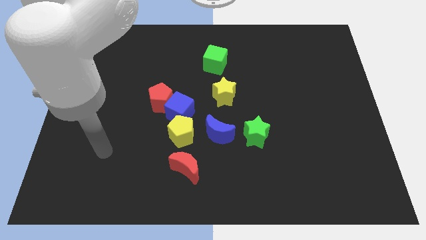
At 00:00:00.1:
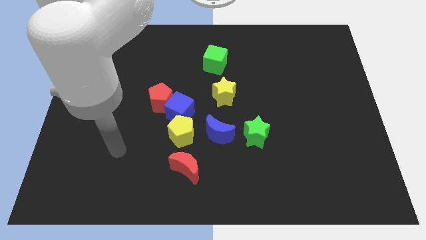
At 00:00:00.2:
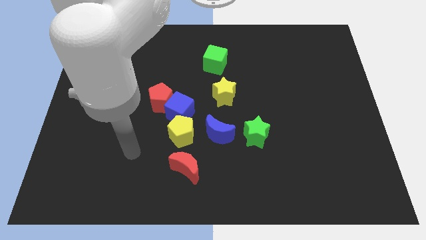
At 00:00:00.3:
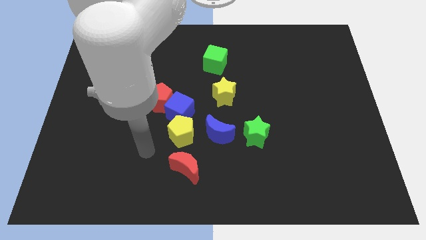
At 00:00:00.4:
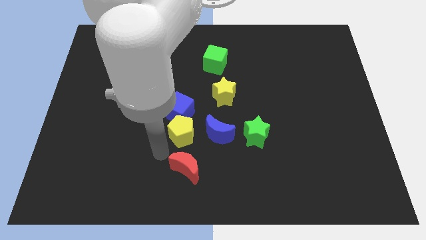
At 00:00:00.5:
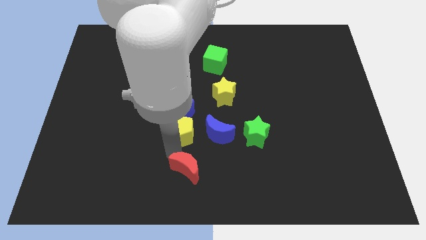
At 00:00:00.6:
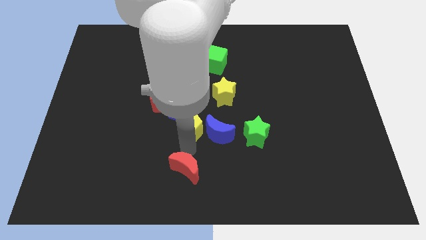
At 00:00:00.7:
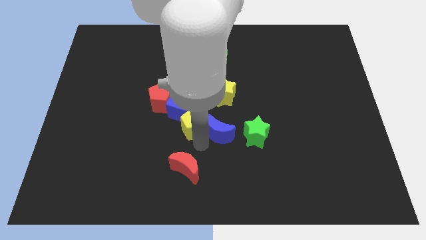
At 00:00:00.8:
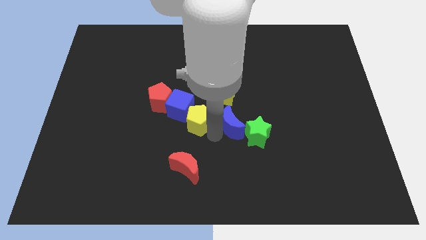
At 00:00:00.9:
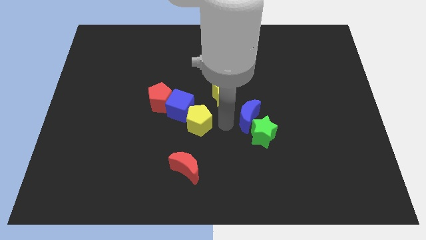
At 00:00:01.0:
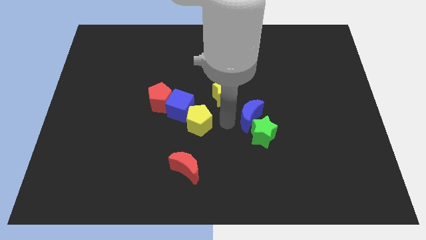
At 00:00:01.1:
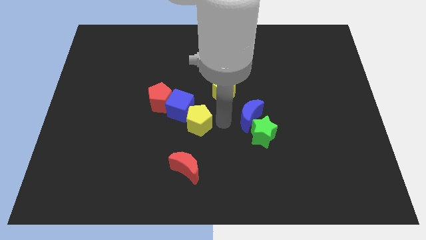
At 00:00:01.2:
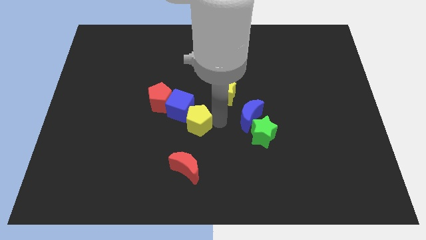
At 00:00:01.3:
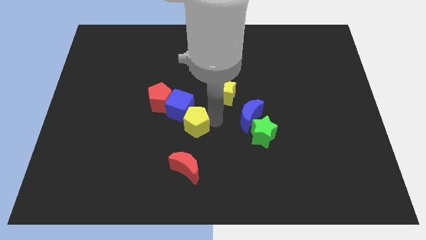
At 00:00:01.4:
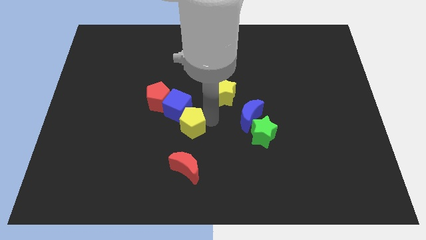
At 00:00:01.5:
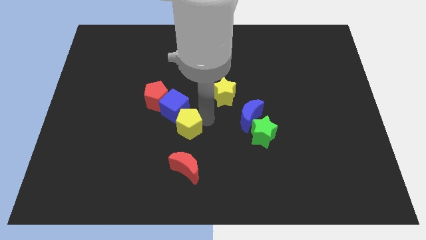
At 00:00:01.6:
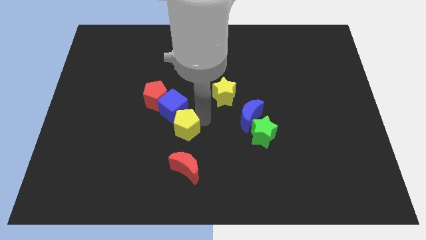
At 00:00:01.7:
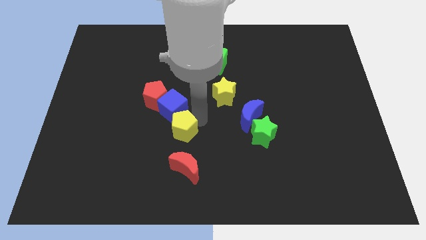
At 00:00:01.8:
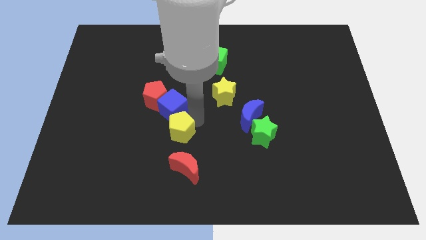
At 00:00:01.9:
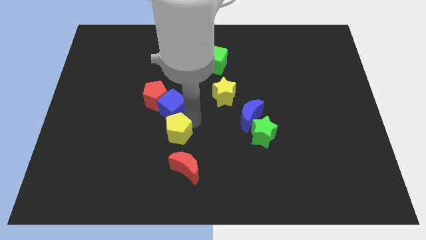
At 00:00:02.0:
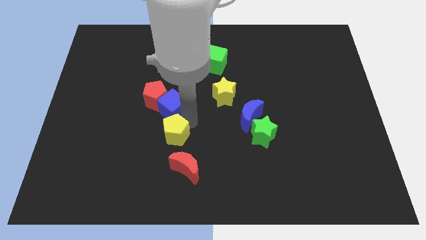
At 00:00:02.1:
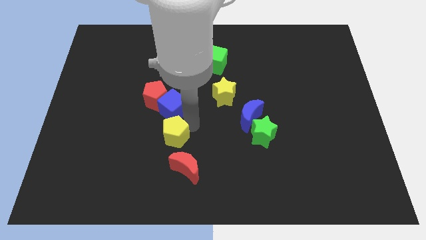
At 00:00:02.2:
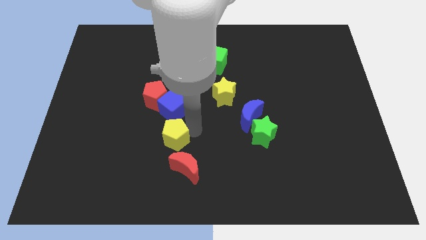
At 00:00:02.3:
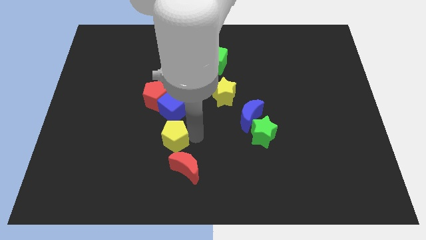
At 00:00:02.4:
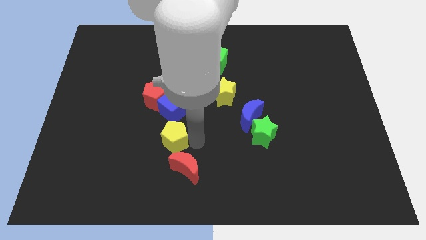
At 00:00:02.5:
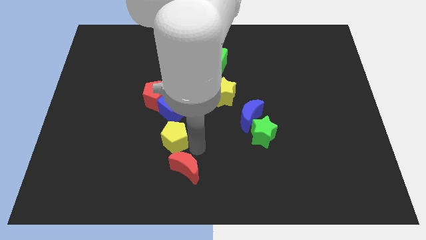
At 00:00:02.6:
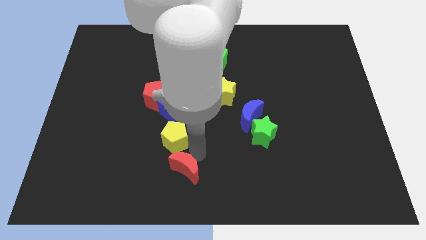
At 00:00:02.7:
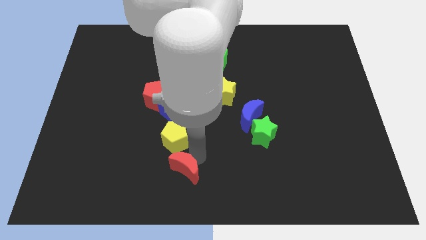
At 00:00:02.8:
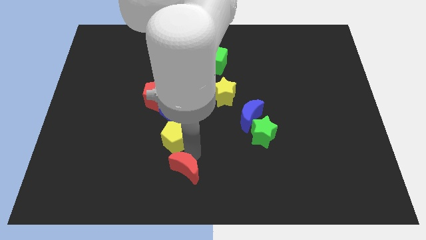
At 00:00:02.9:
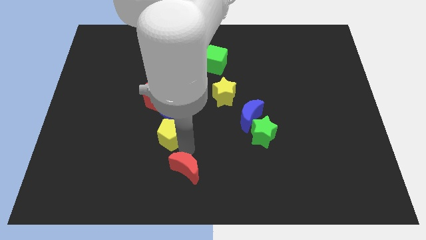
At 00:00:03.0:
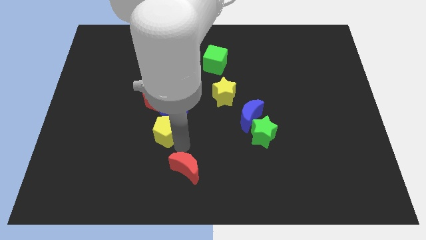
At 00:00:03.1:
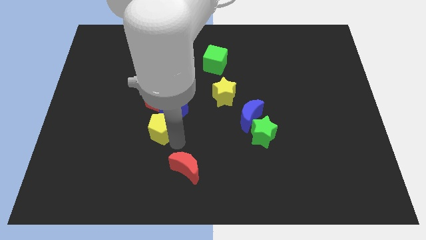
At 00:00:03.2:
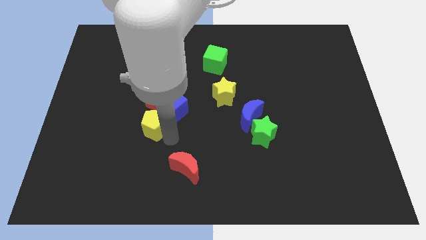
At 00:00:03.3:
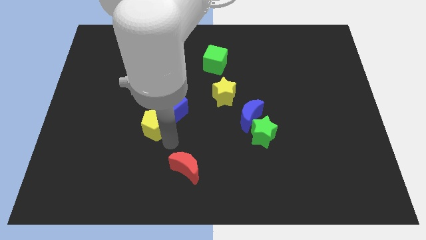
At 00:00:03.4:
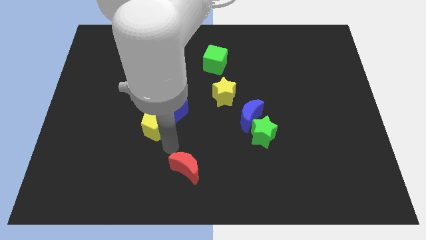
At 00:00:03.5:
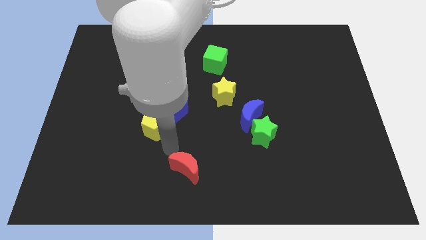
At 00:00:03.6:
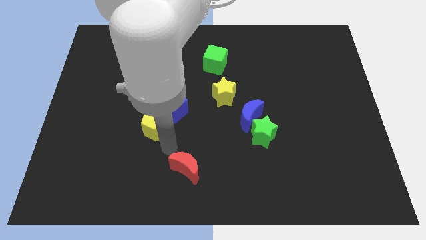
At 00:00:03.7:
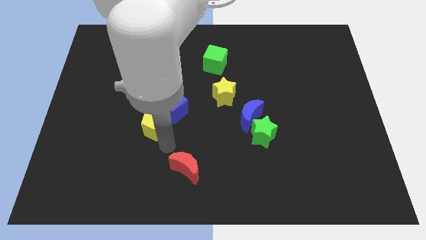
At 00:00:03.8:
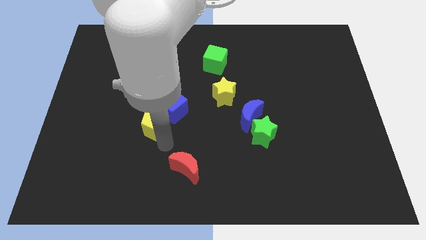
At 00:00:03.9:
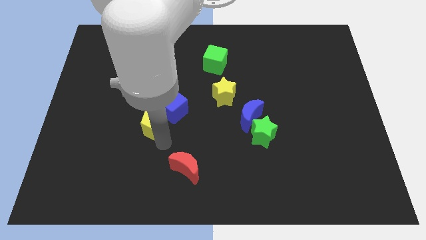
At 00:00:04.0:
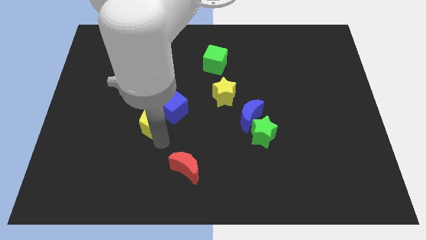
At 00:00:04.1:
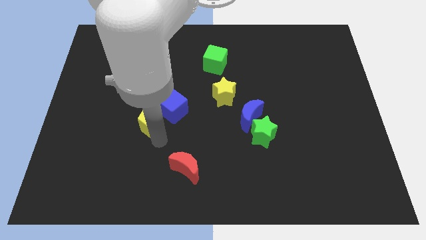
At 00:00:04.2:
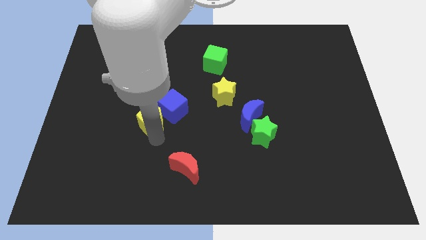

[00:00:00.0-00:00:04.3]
slide the yellow pentagon diagonally upwards and to the left somewhat

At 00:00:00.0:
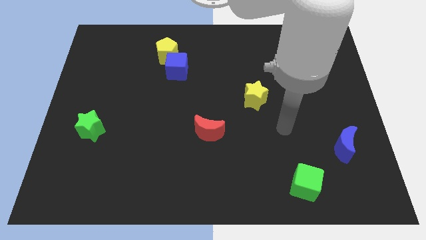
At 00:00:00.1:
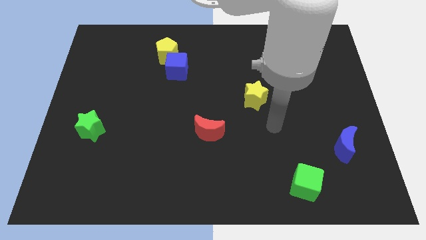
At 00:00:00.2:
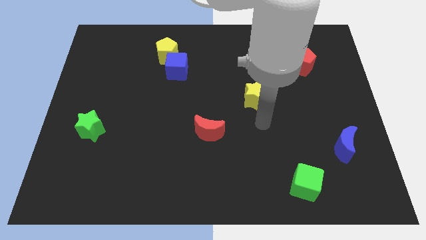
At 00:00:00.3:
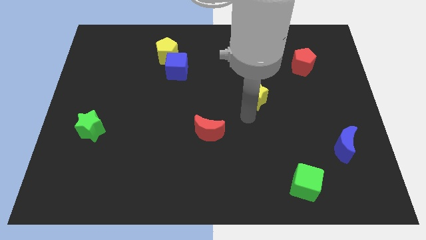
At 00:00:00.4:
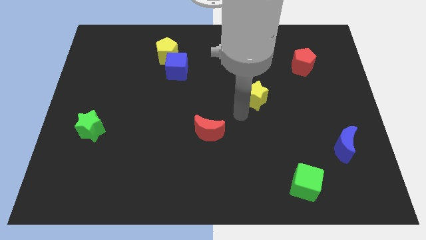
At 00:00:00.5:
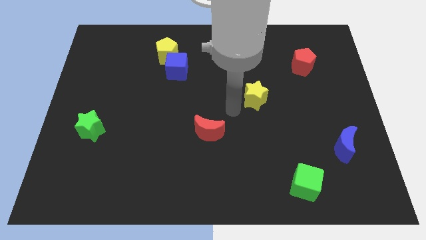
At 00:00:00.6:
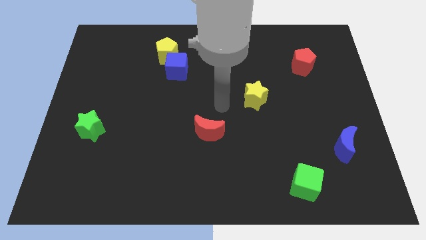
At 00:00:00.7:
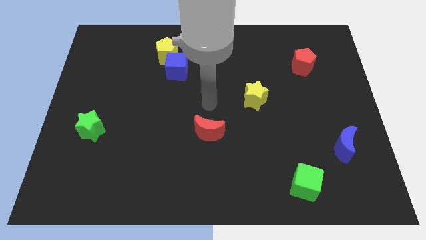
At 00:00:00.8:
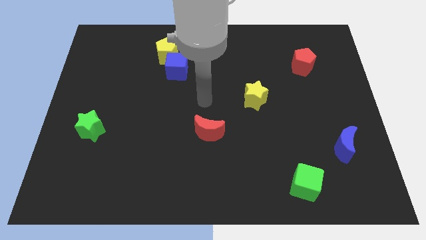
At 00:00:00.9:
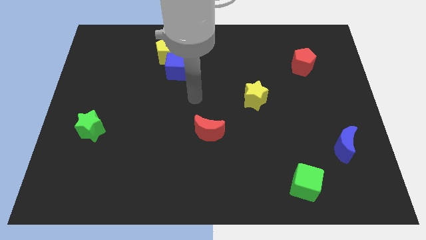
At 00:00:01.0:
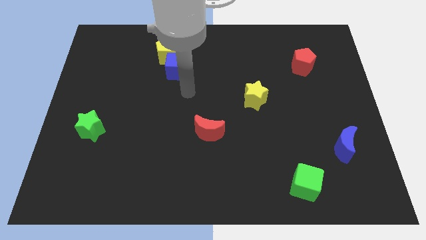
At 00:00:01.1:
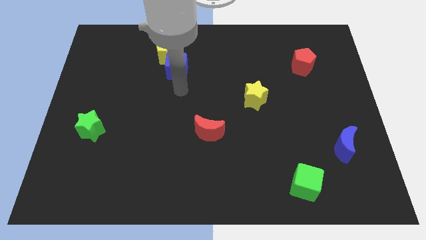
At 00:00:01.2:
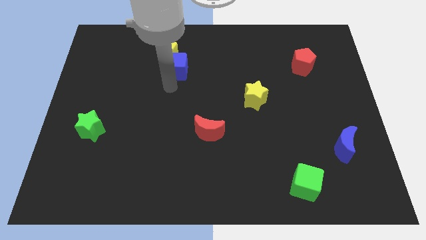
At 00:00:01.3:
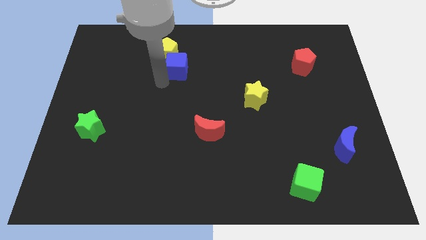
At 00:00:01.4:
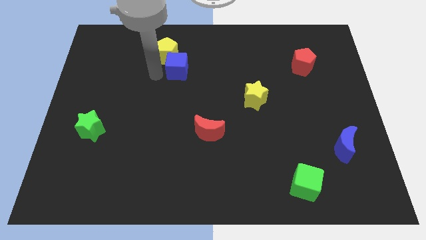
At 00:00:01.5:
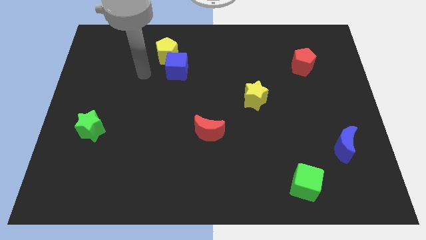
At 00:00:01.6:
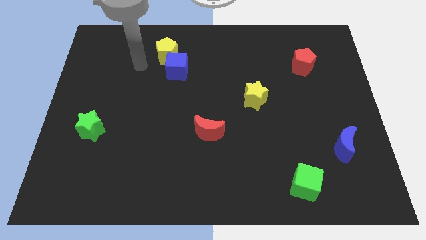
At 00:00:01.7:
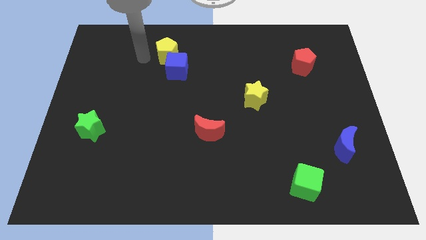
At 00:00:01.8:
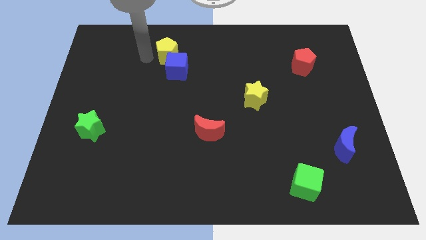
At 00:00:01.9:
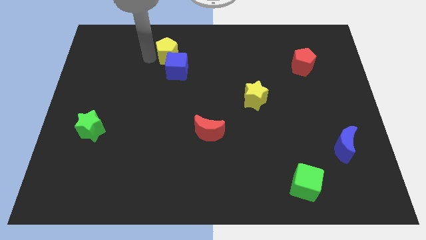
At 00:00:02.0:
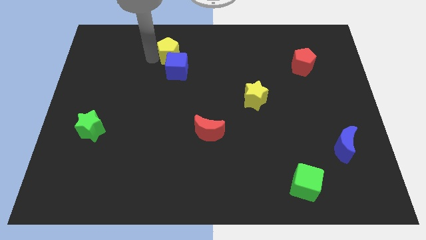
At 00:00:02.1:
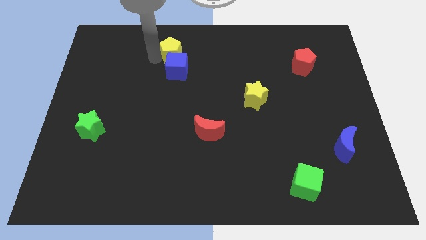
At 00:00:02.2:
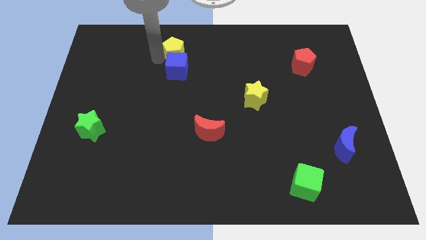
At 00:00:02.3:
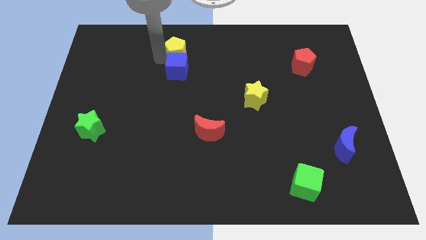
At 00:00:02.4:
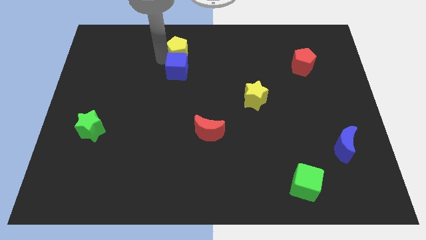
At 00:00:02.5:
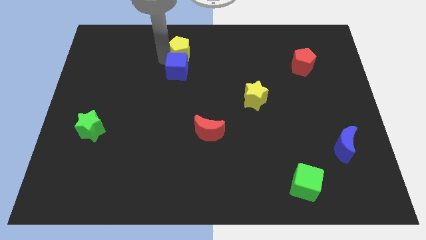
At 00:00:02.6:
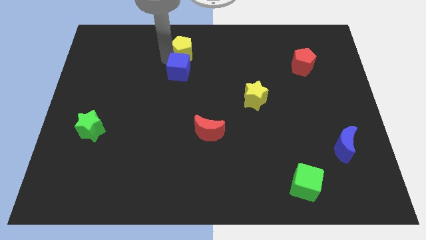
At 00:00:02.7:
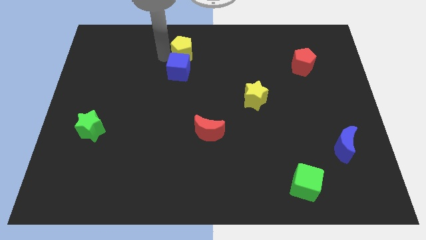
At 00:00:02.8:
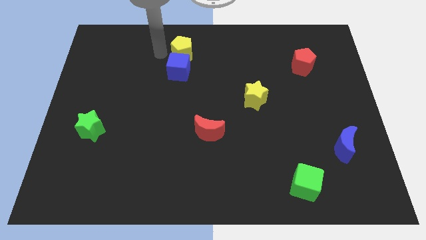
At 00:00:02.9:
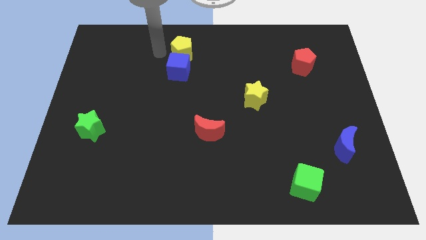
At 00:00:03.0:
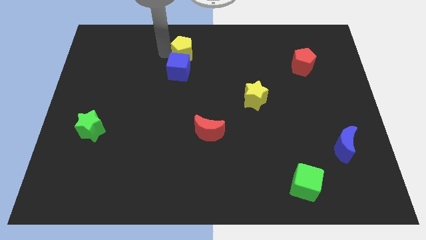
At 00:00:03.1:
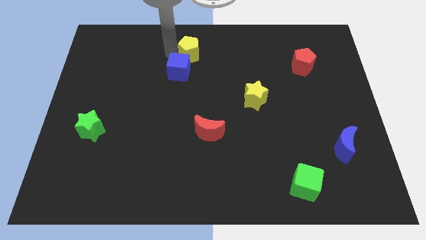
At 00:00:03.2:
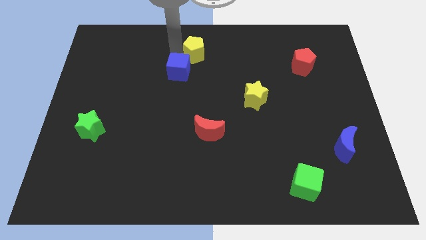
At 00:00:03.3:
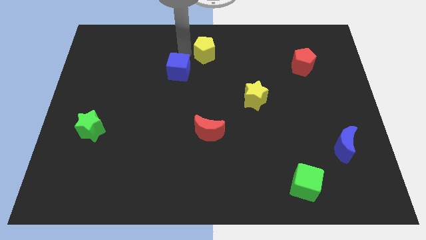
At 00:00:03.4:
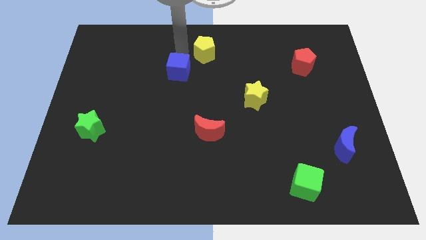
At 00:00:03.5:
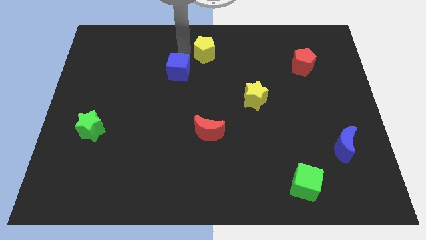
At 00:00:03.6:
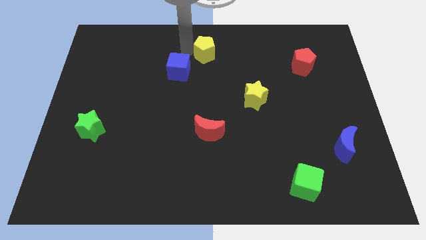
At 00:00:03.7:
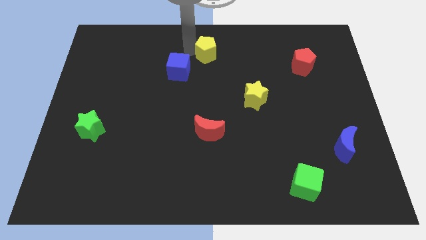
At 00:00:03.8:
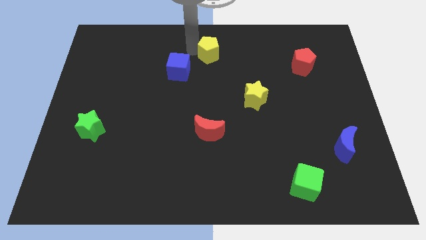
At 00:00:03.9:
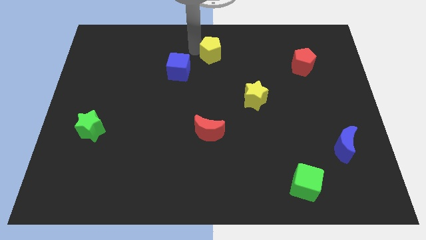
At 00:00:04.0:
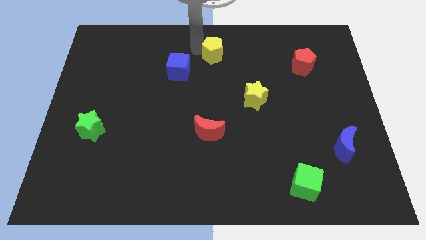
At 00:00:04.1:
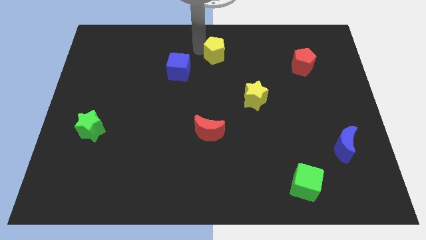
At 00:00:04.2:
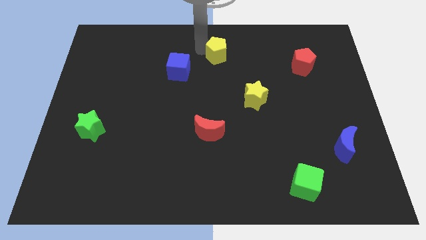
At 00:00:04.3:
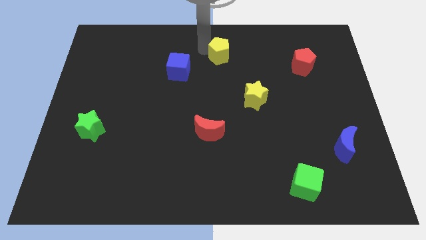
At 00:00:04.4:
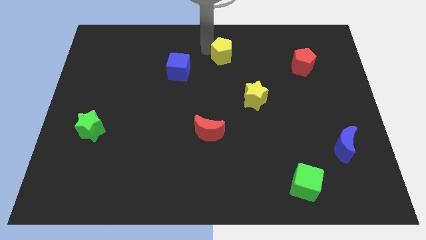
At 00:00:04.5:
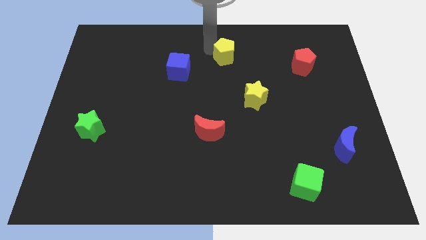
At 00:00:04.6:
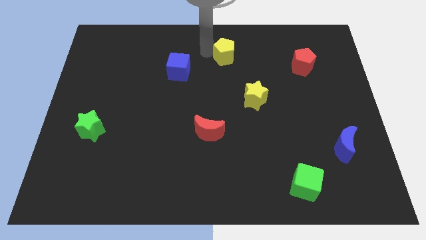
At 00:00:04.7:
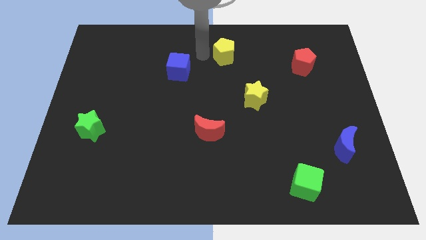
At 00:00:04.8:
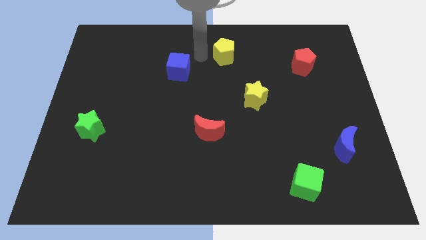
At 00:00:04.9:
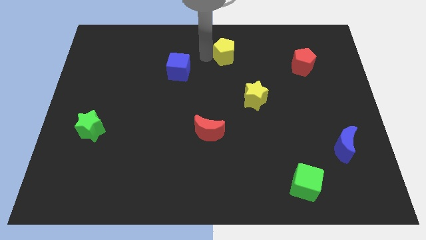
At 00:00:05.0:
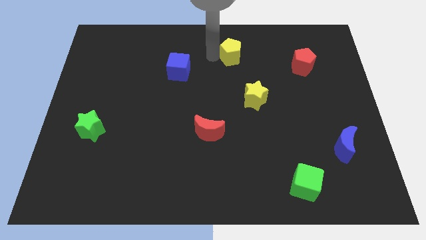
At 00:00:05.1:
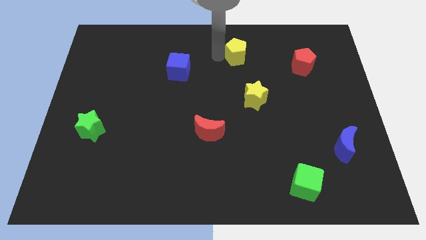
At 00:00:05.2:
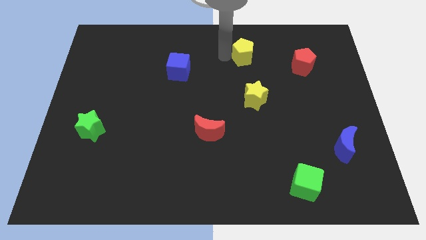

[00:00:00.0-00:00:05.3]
push the yellow pentagon right
